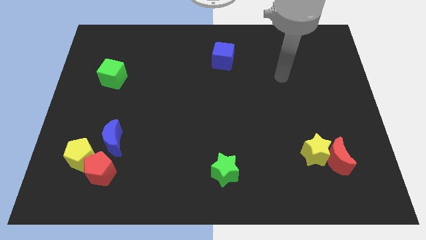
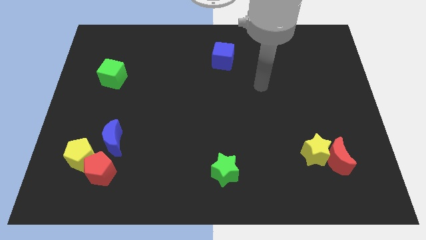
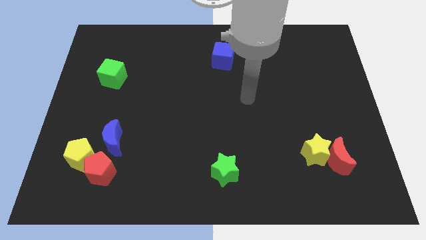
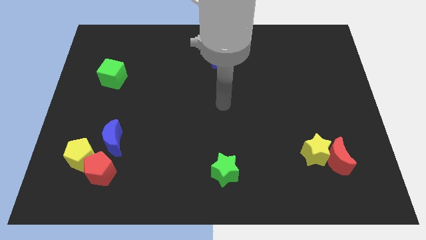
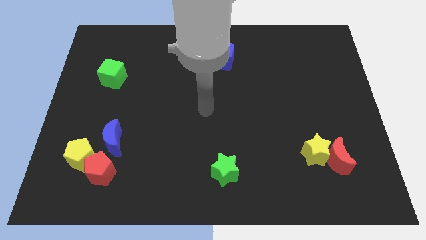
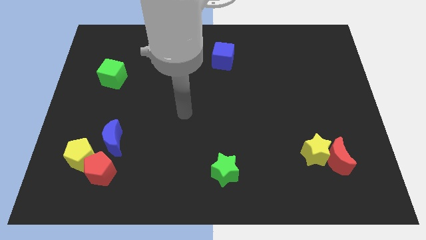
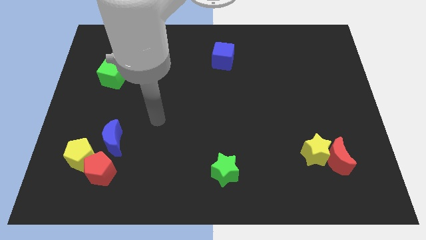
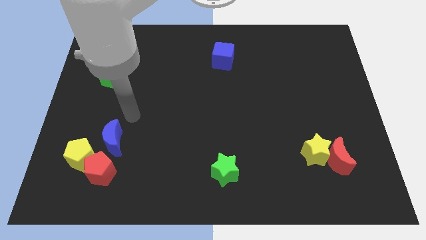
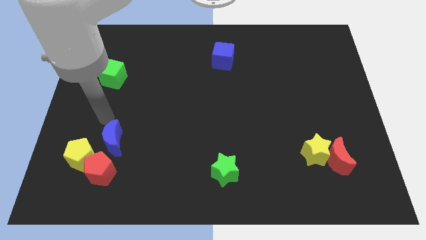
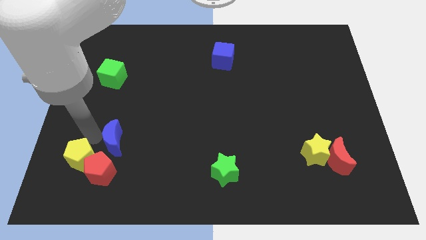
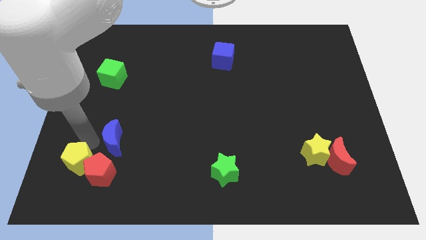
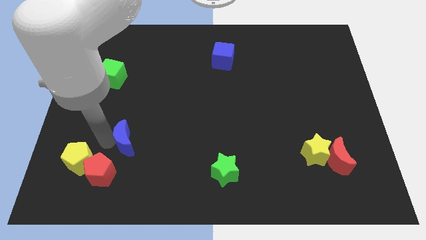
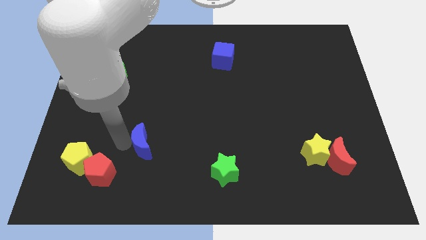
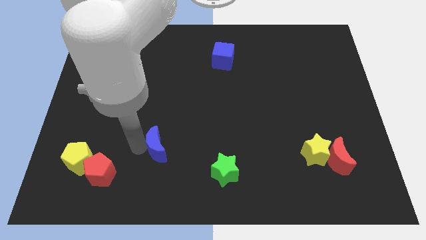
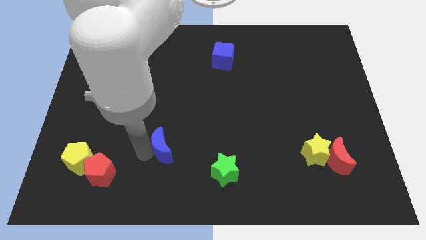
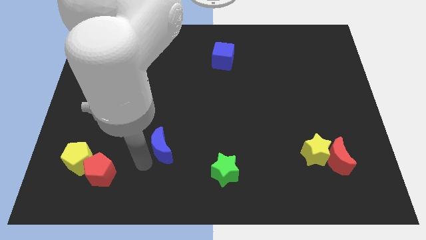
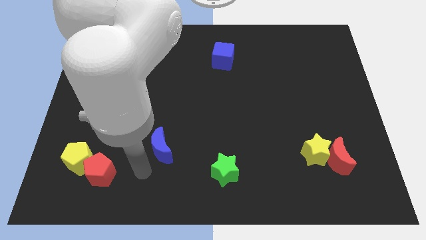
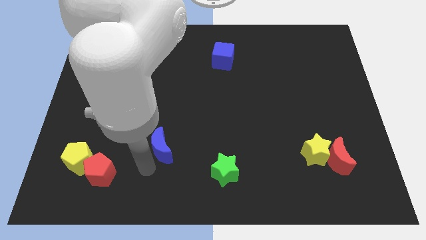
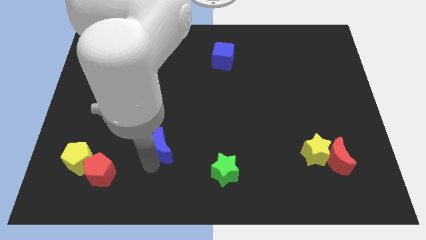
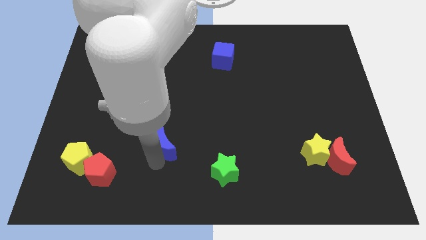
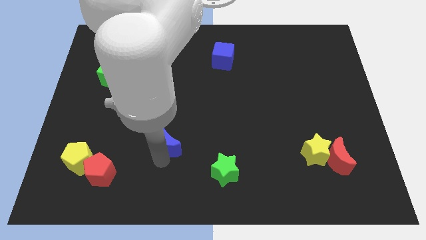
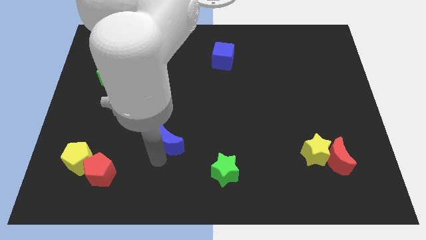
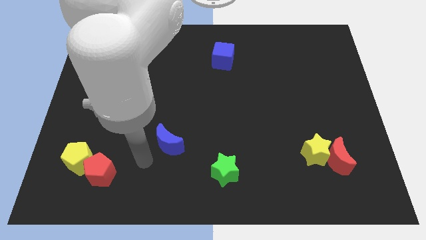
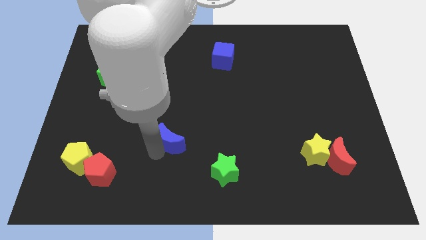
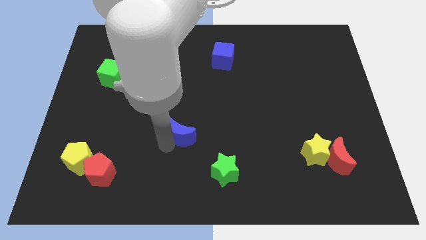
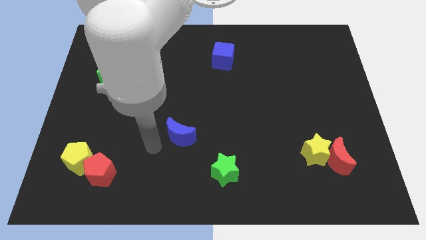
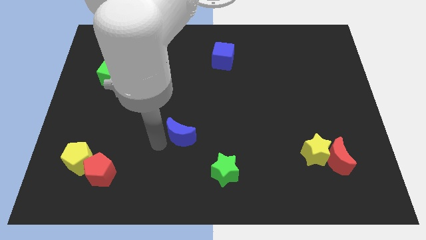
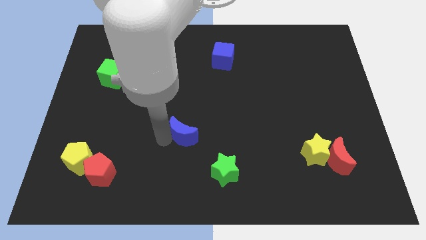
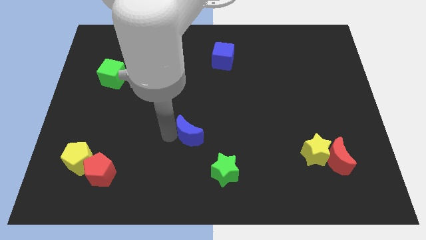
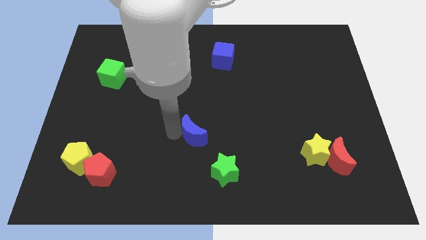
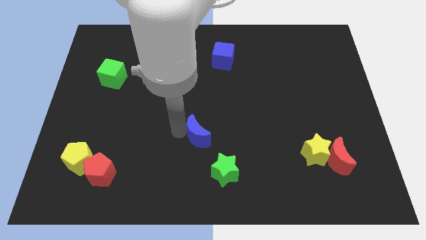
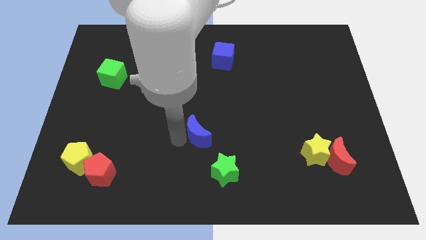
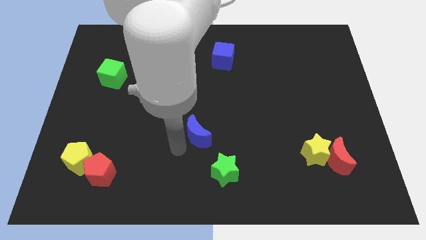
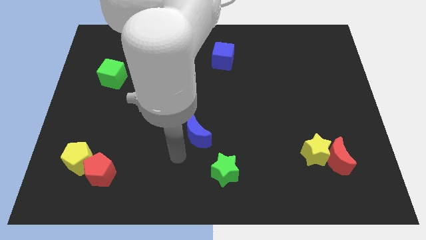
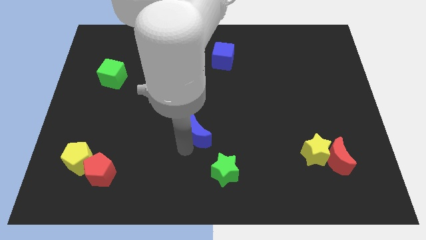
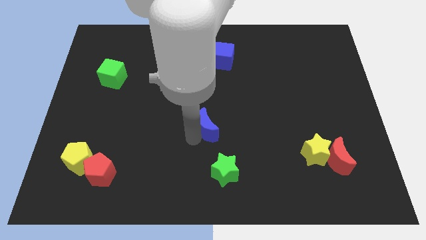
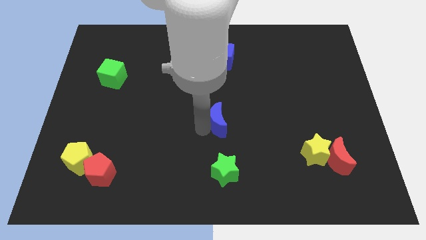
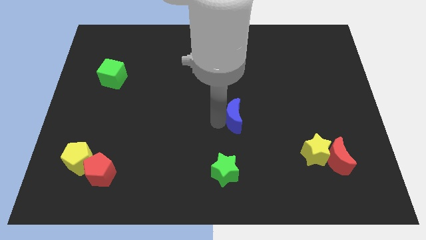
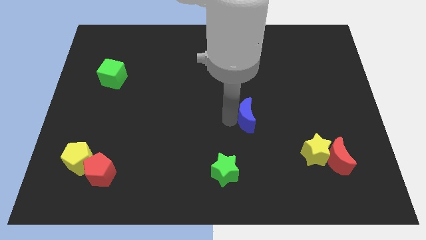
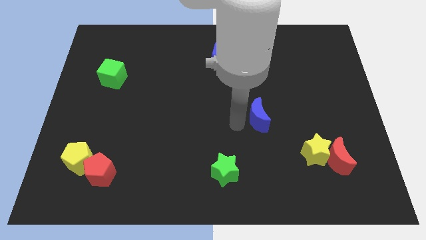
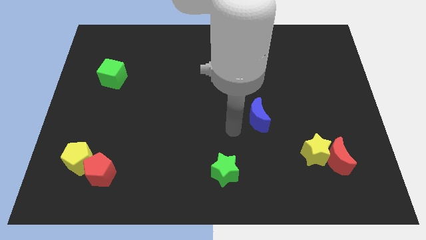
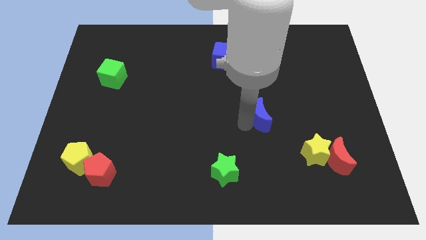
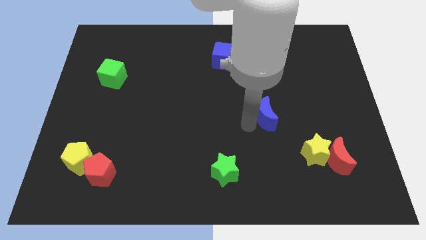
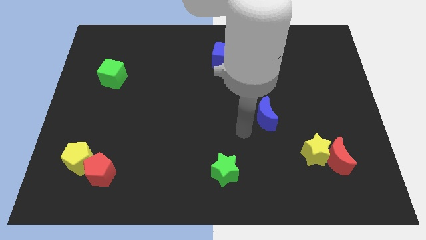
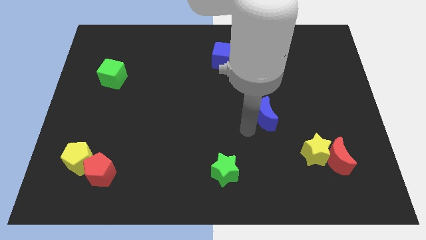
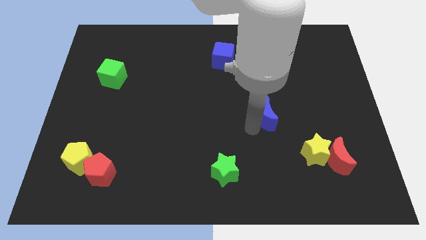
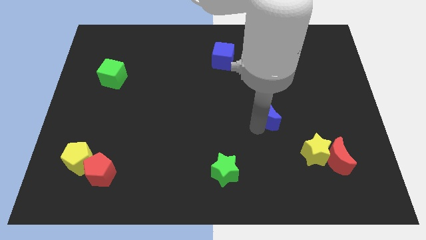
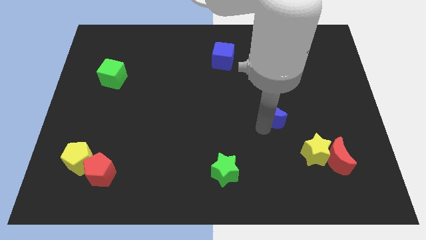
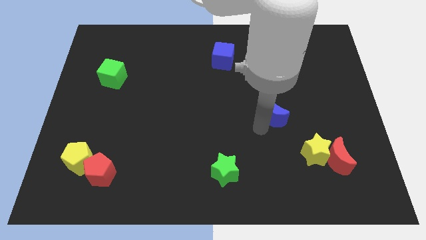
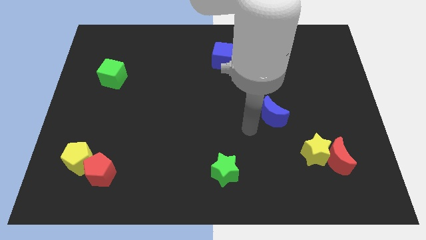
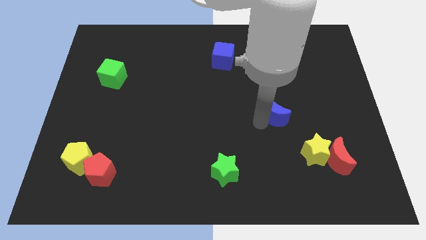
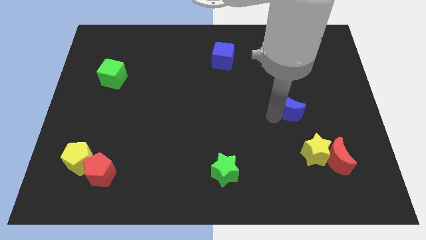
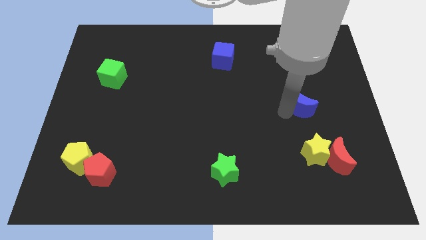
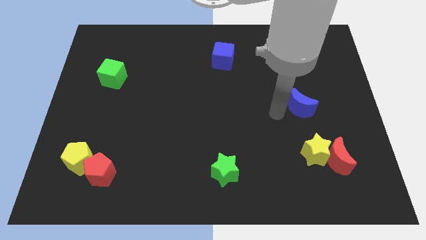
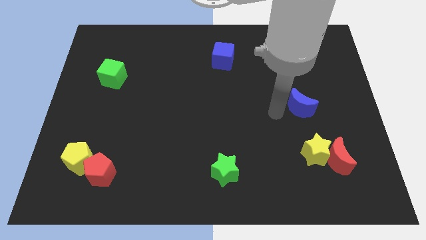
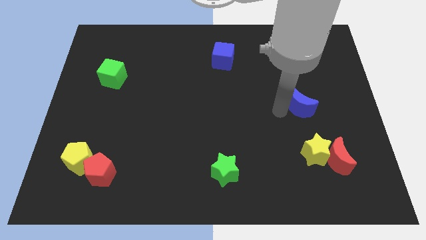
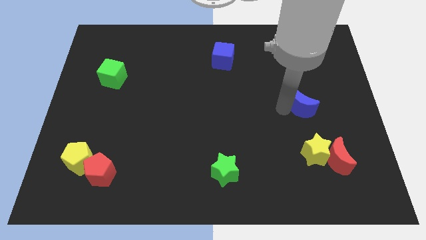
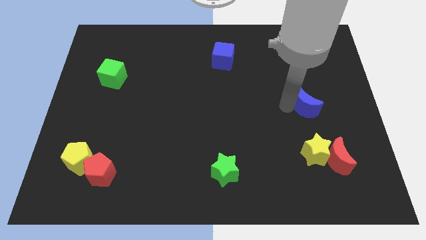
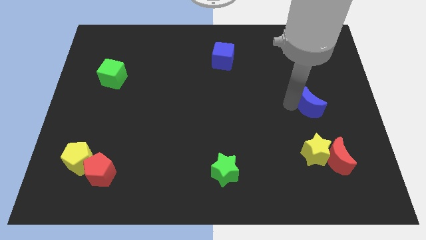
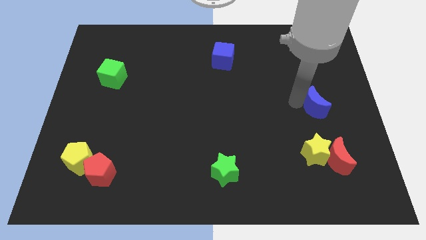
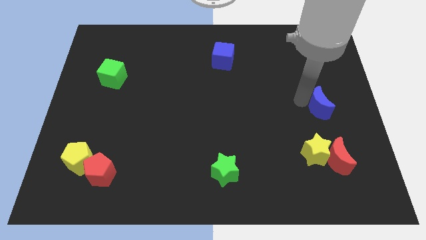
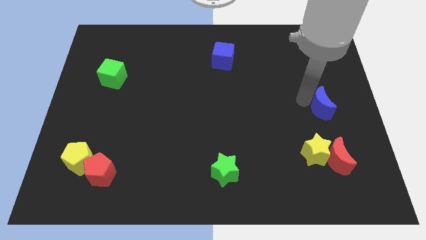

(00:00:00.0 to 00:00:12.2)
move the blue moon to the right side of the board

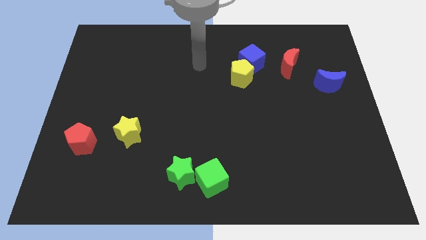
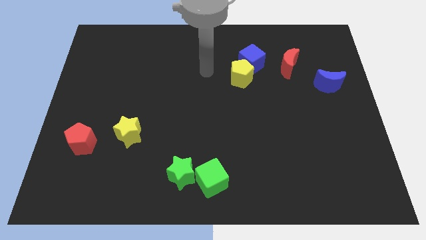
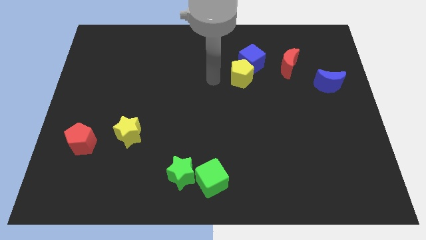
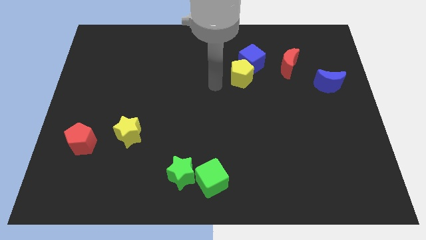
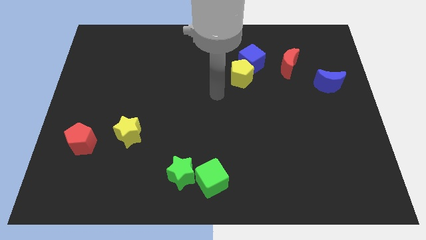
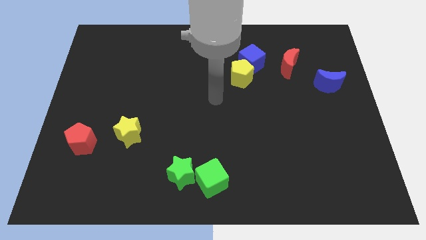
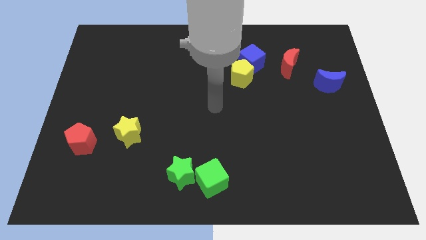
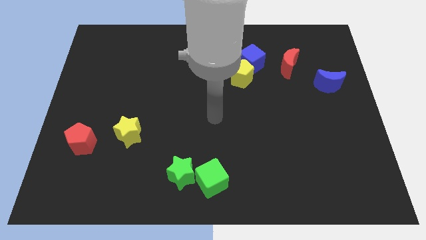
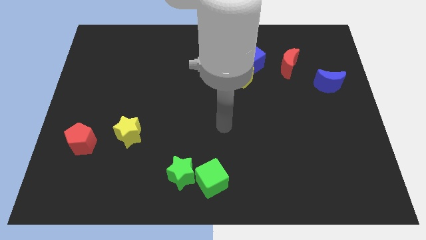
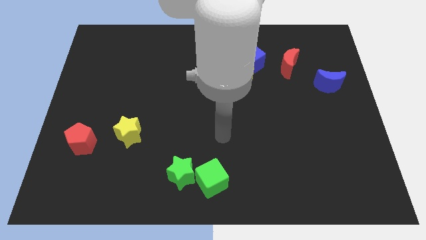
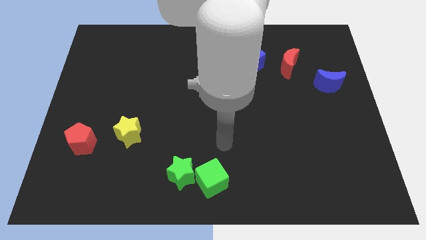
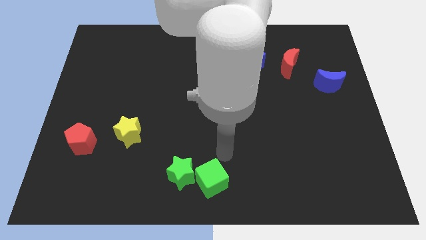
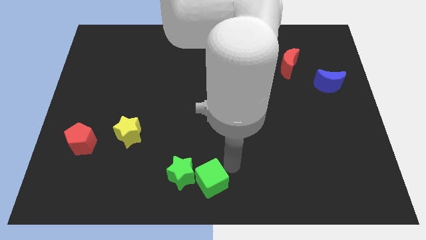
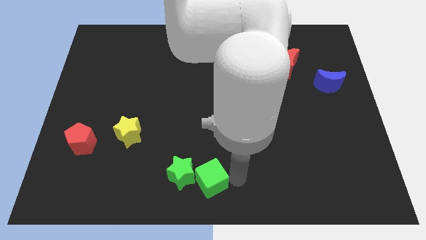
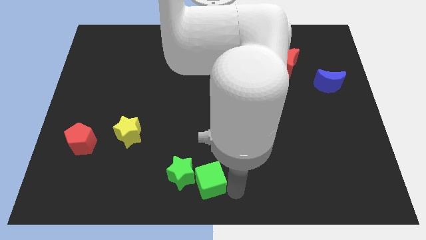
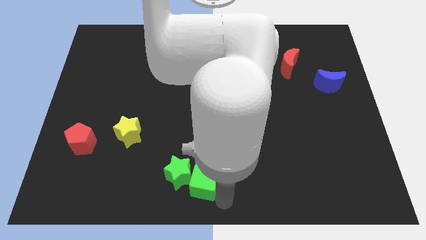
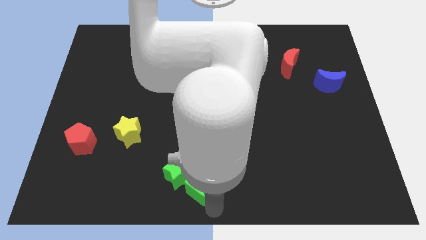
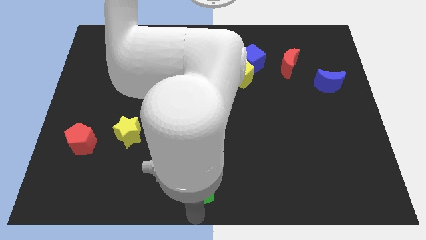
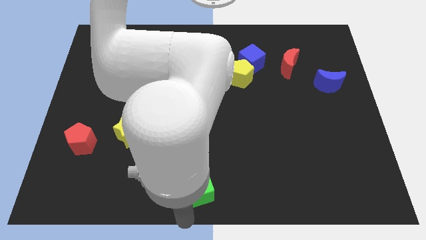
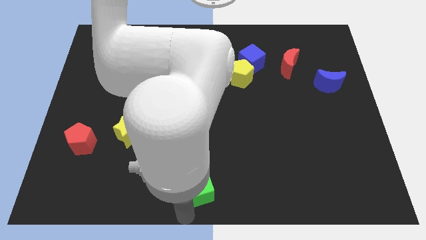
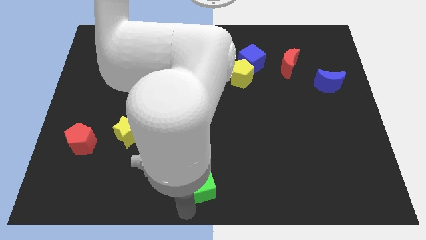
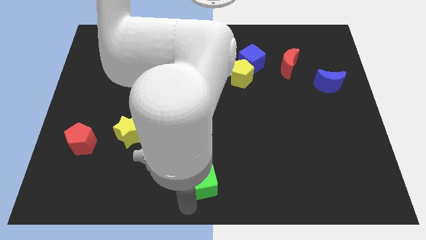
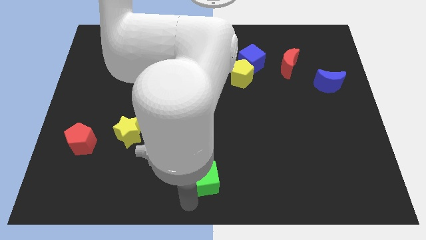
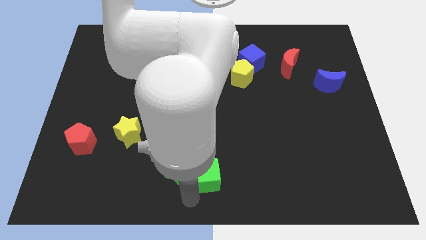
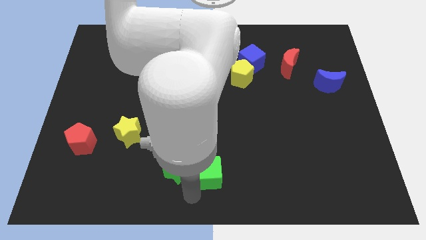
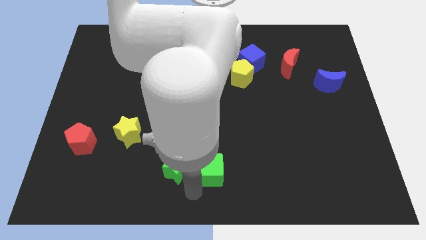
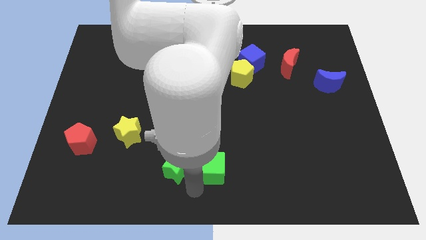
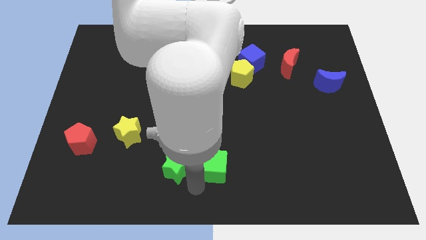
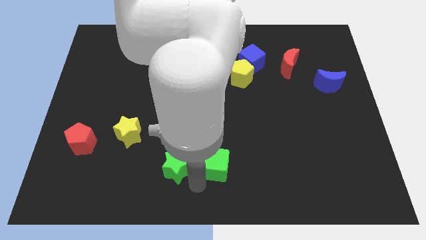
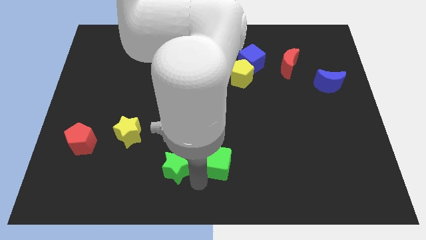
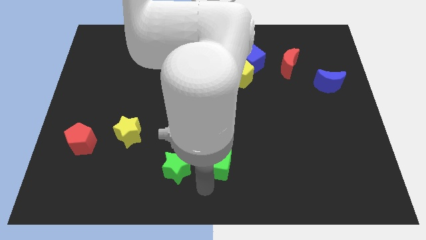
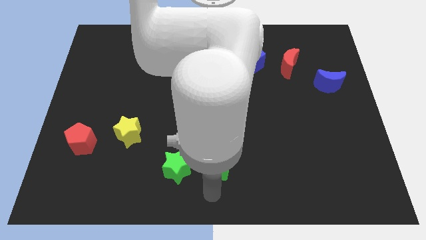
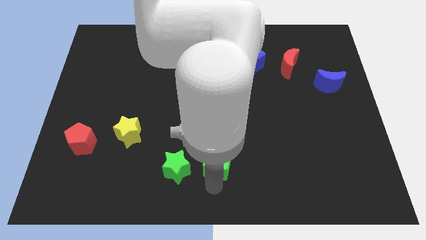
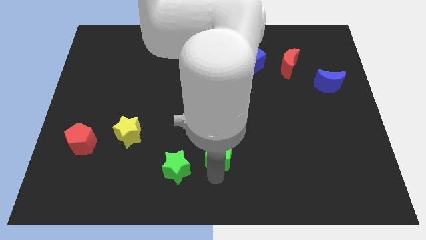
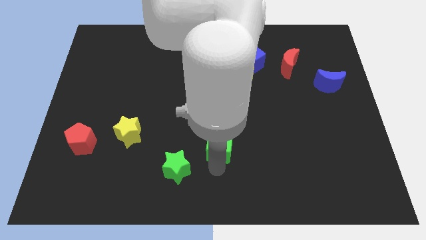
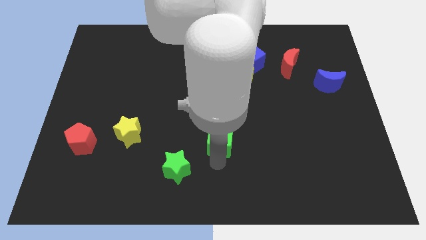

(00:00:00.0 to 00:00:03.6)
push the green cube to the middle
